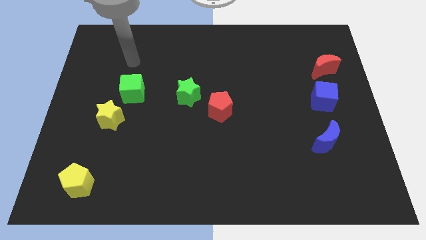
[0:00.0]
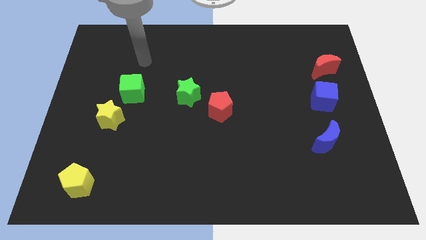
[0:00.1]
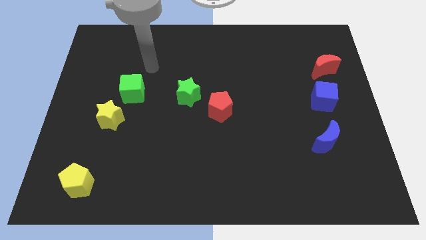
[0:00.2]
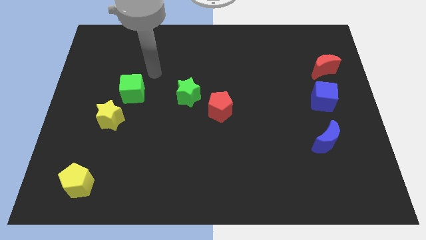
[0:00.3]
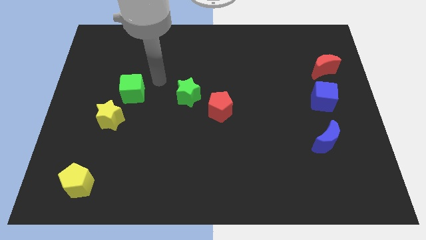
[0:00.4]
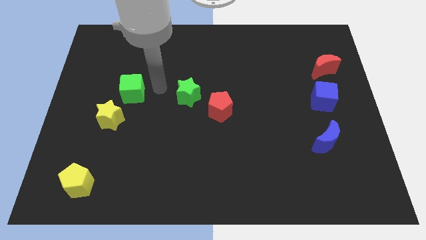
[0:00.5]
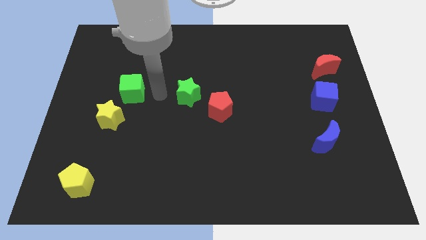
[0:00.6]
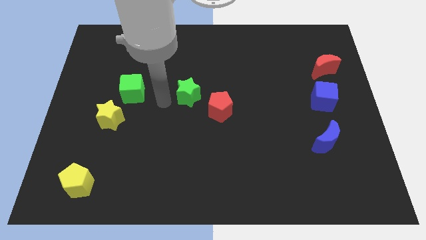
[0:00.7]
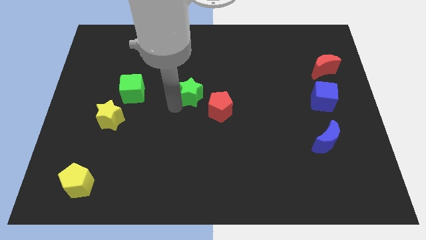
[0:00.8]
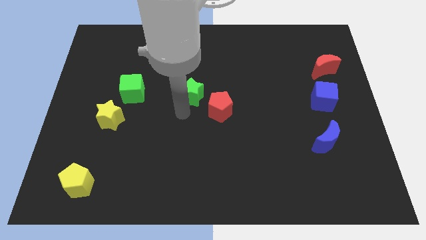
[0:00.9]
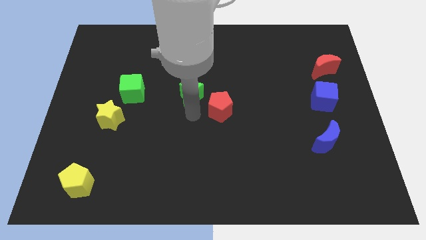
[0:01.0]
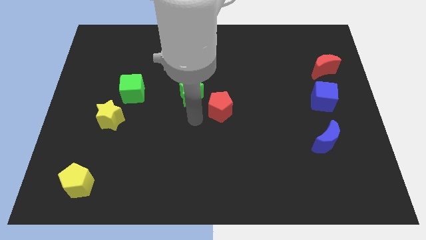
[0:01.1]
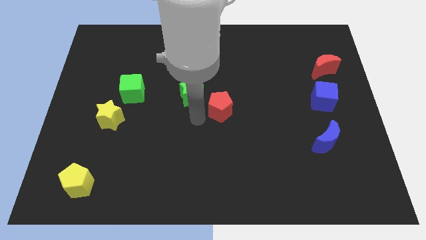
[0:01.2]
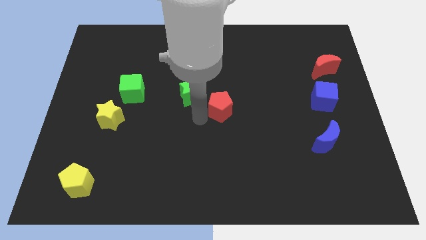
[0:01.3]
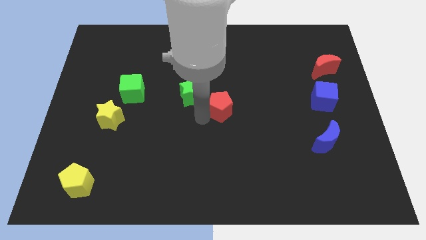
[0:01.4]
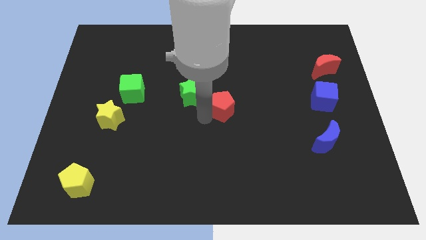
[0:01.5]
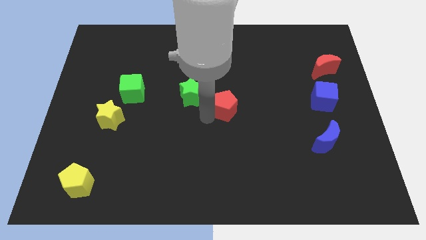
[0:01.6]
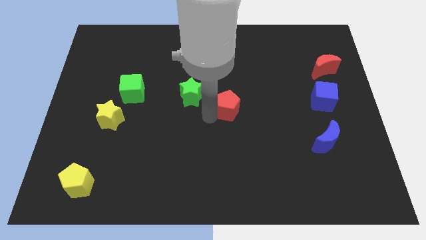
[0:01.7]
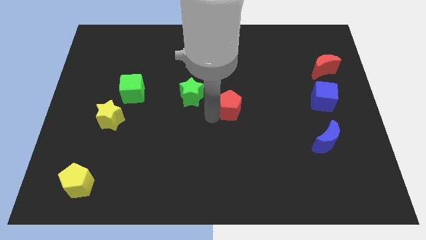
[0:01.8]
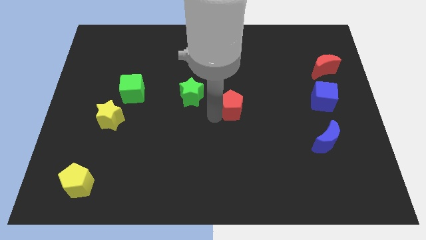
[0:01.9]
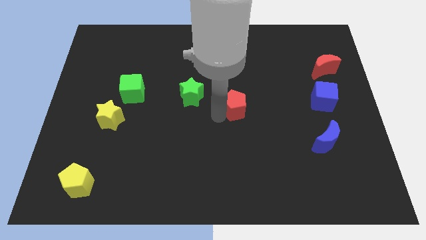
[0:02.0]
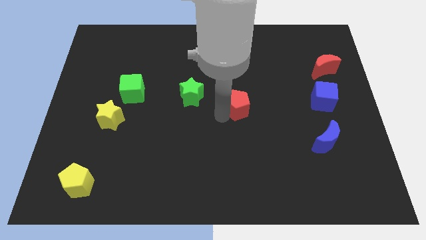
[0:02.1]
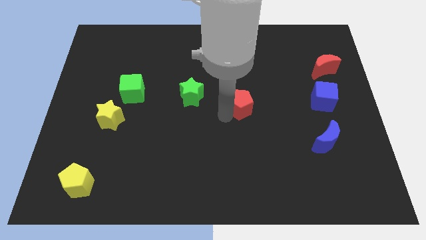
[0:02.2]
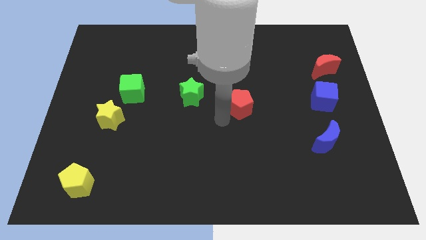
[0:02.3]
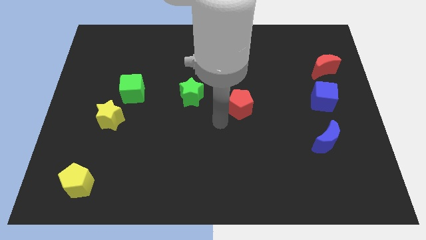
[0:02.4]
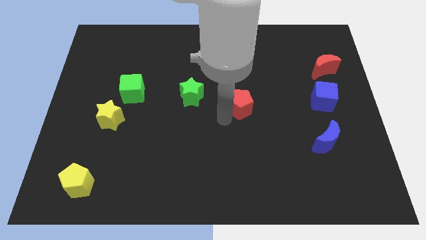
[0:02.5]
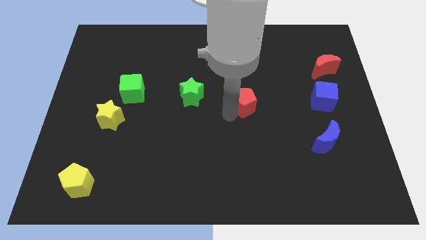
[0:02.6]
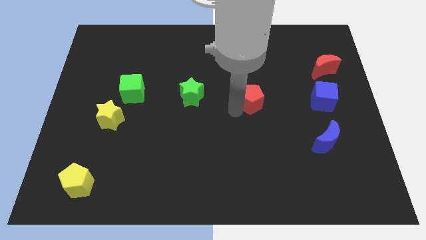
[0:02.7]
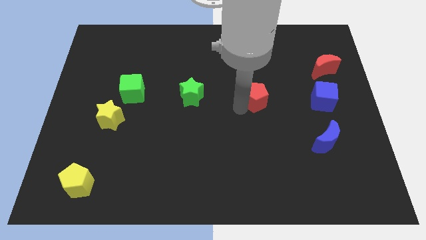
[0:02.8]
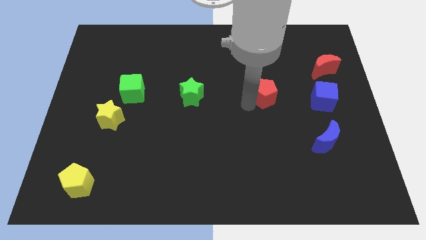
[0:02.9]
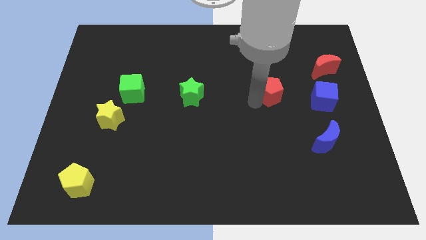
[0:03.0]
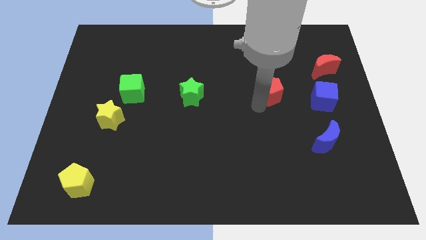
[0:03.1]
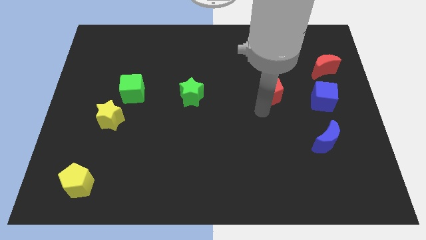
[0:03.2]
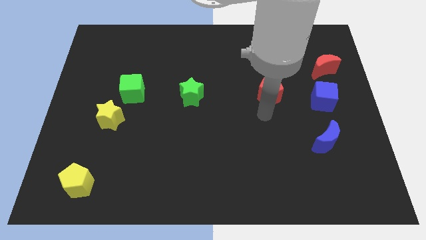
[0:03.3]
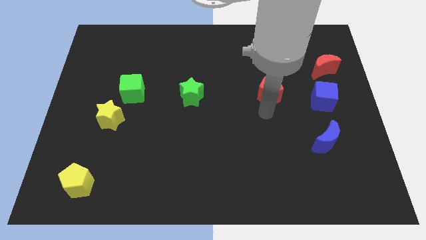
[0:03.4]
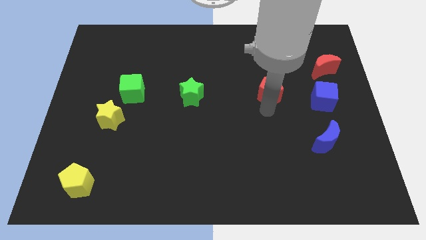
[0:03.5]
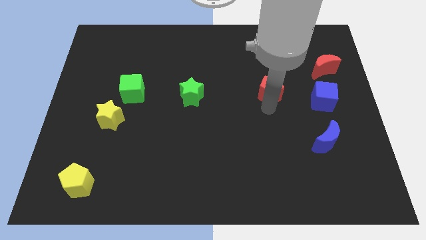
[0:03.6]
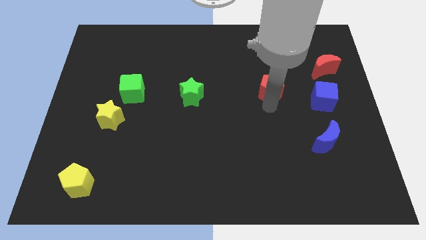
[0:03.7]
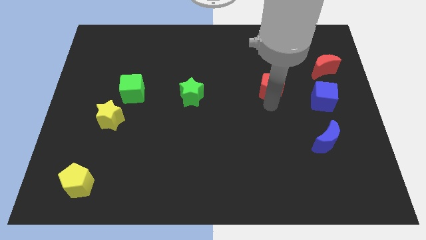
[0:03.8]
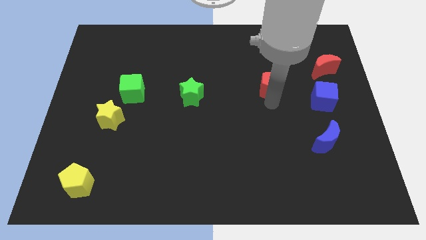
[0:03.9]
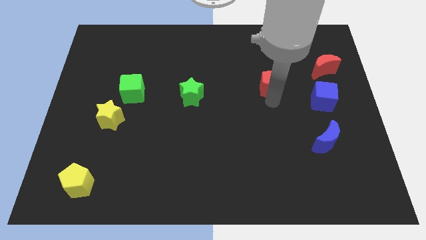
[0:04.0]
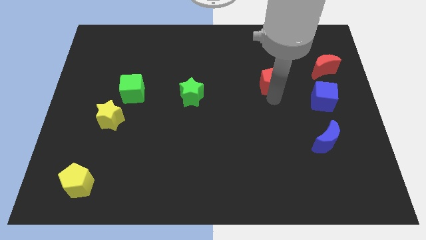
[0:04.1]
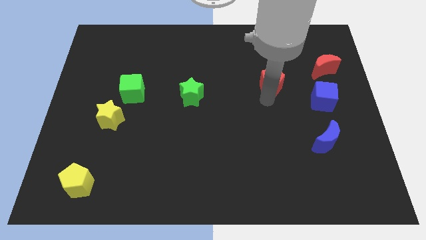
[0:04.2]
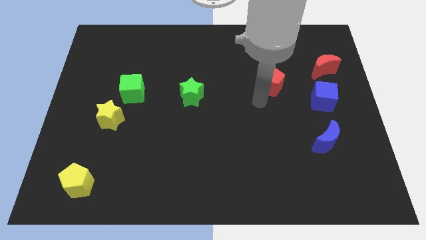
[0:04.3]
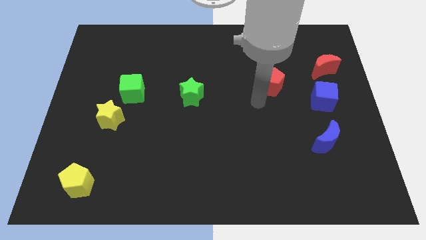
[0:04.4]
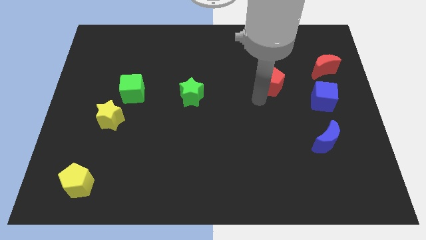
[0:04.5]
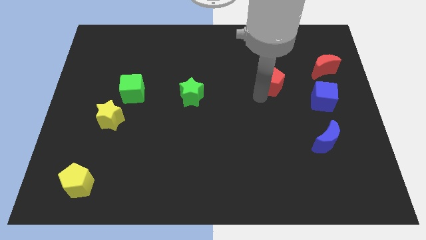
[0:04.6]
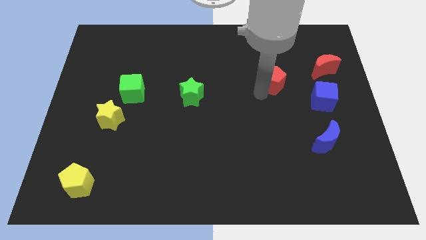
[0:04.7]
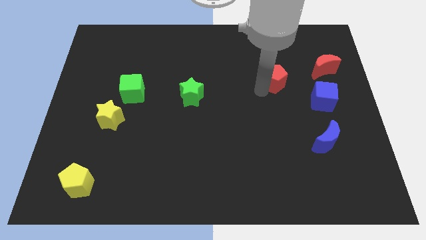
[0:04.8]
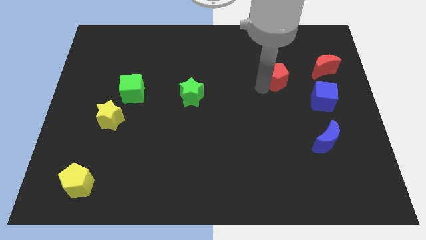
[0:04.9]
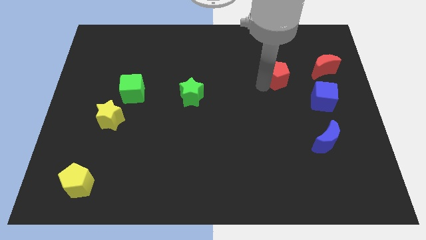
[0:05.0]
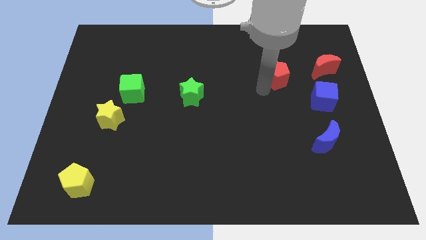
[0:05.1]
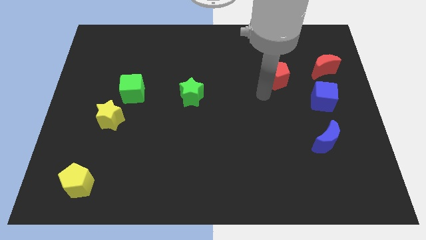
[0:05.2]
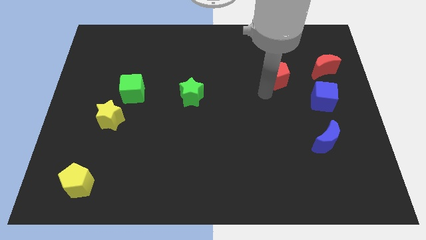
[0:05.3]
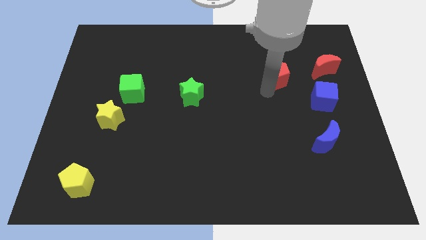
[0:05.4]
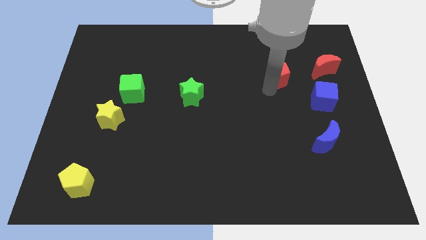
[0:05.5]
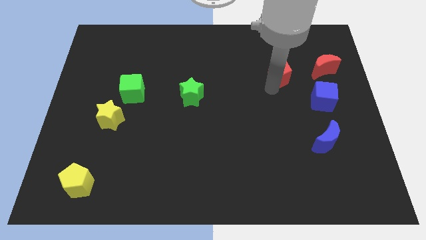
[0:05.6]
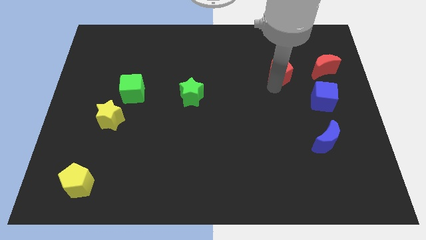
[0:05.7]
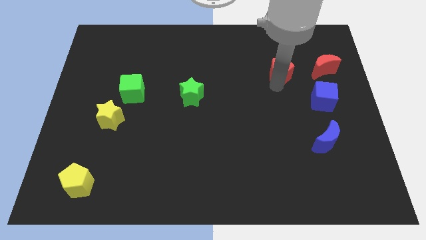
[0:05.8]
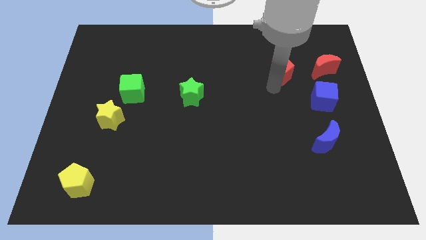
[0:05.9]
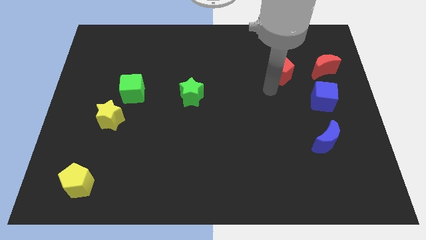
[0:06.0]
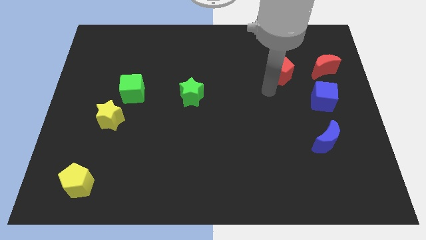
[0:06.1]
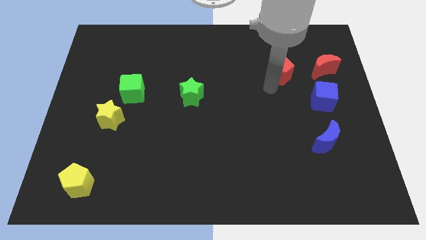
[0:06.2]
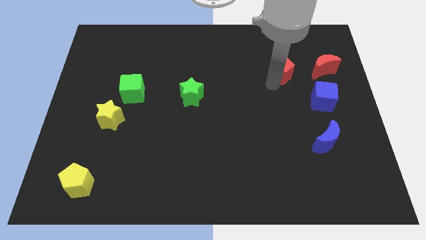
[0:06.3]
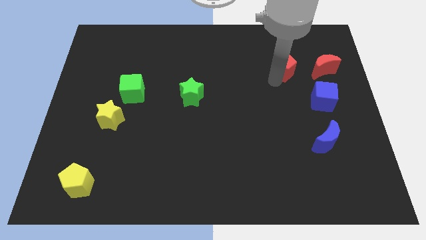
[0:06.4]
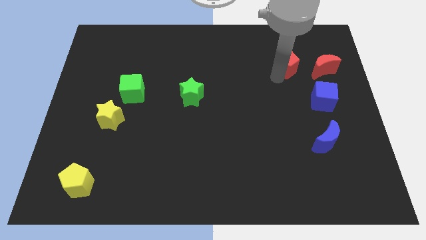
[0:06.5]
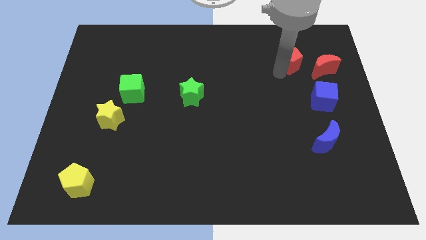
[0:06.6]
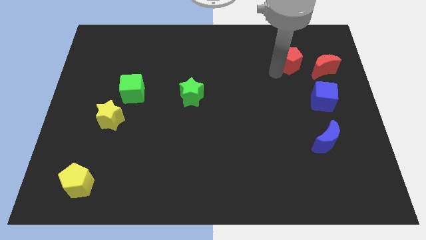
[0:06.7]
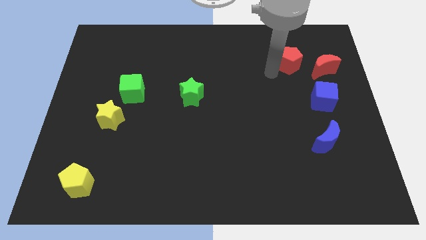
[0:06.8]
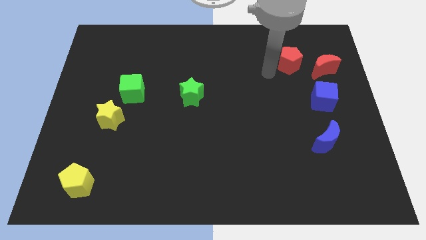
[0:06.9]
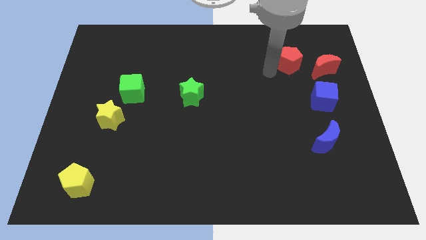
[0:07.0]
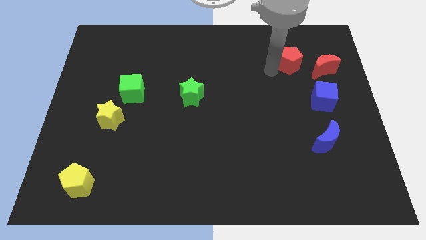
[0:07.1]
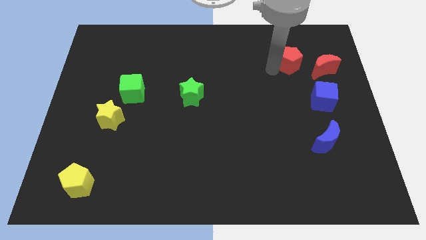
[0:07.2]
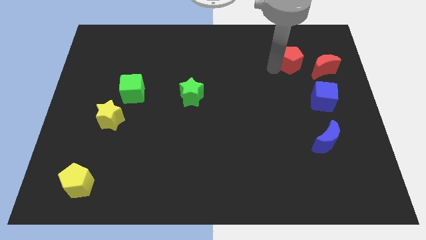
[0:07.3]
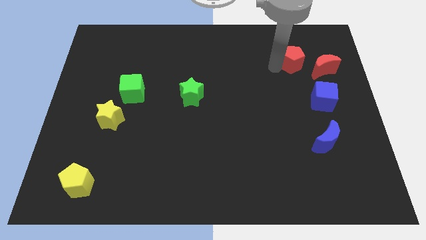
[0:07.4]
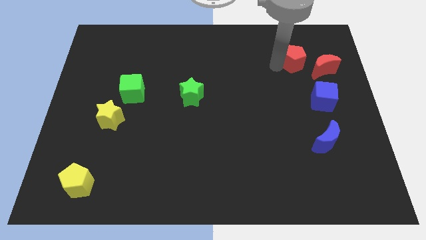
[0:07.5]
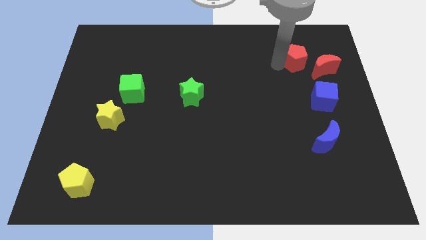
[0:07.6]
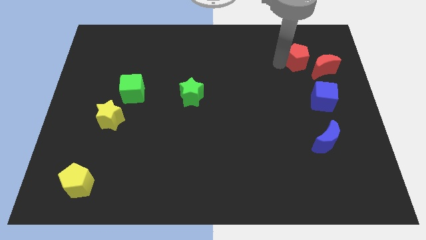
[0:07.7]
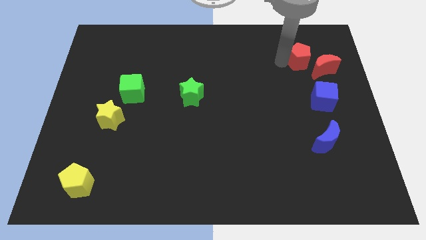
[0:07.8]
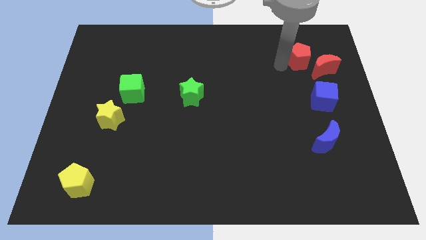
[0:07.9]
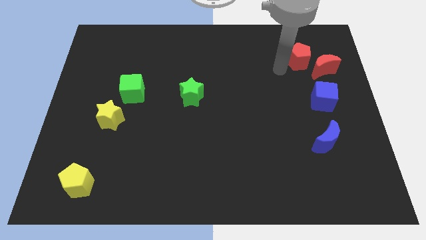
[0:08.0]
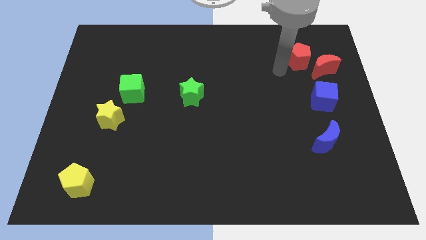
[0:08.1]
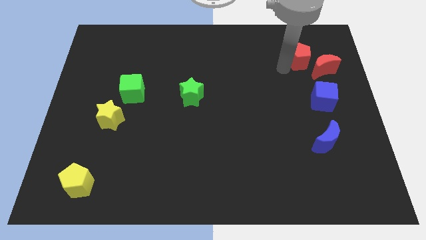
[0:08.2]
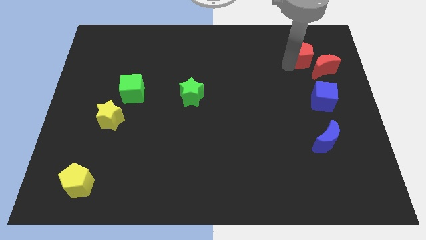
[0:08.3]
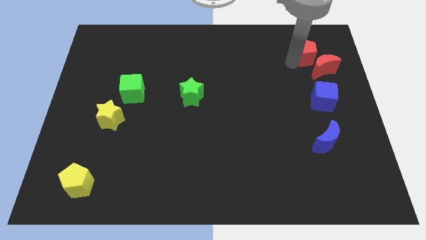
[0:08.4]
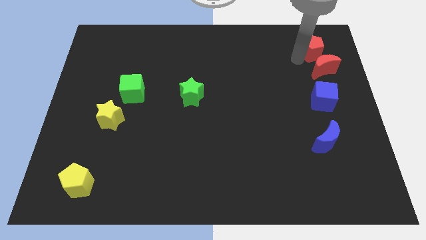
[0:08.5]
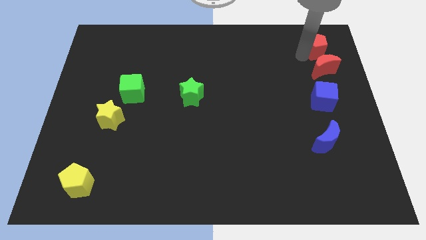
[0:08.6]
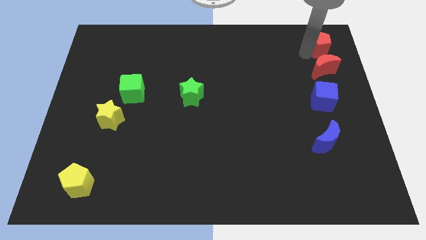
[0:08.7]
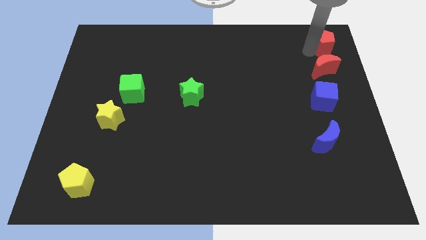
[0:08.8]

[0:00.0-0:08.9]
put the red pentagon to the top right corner
